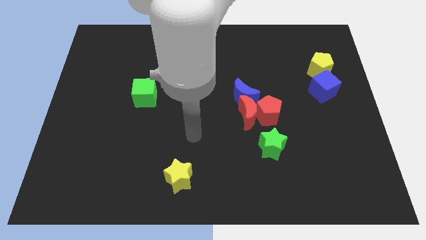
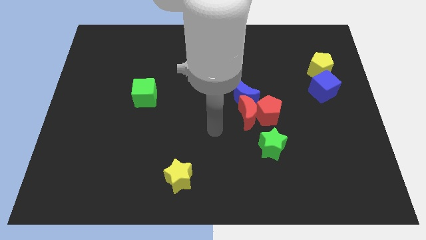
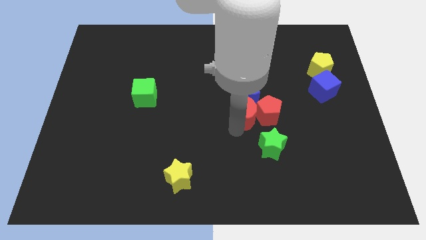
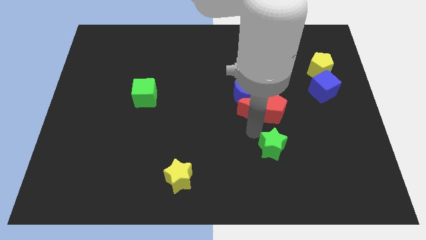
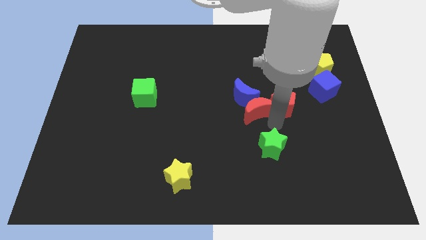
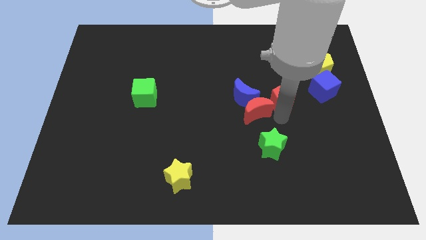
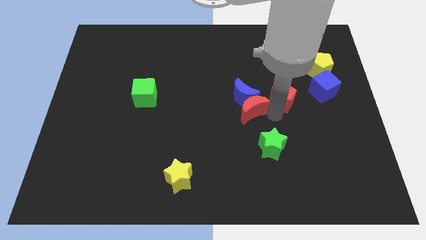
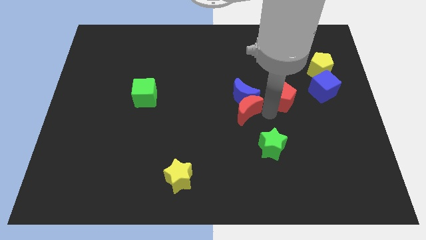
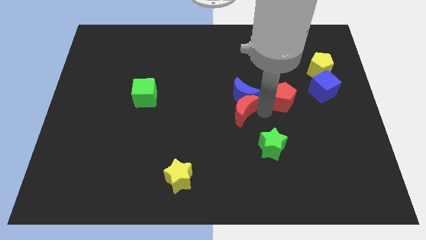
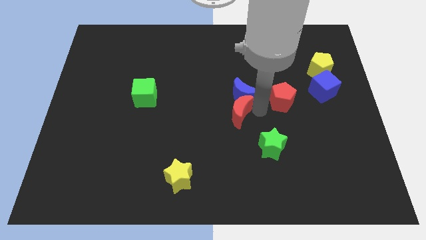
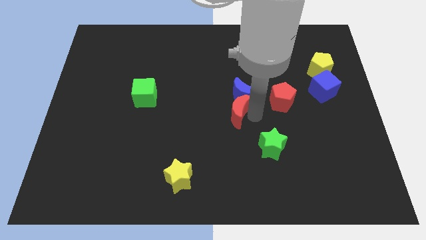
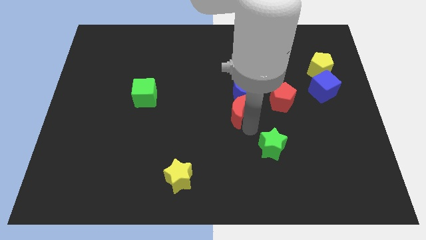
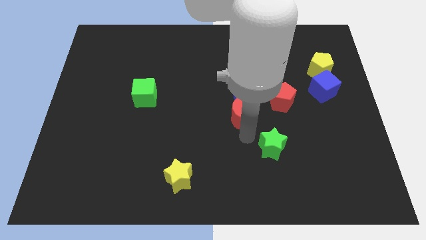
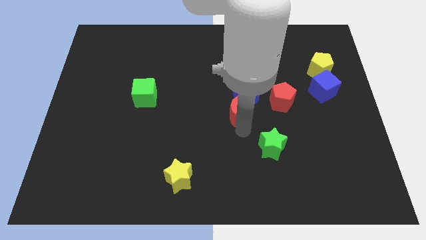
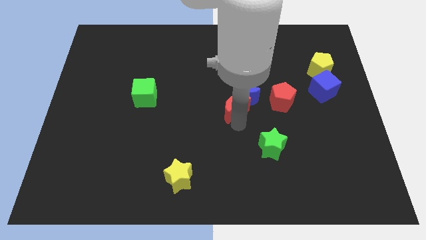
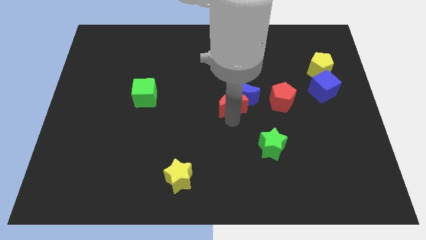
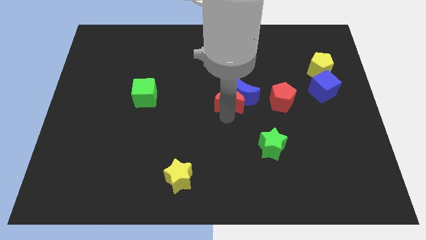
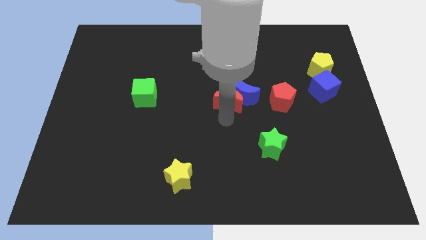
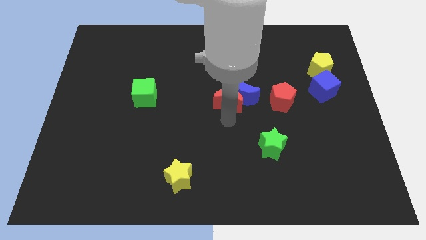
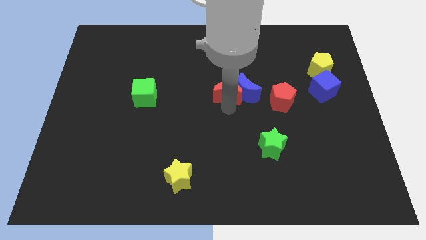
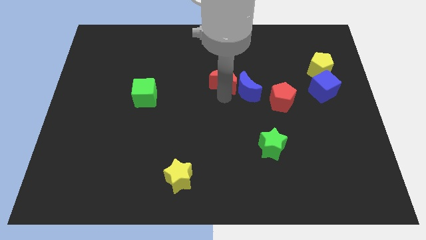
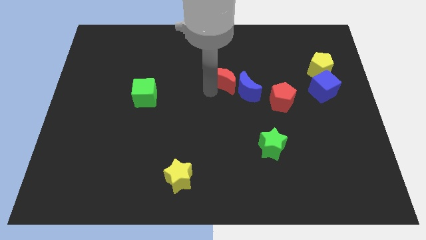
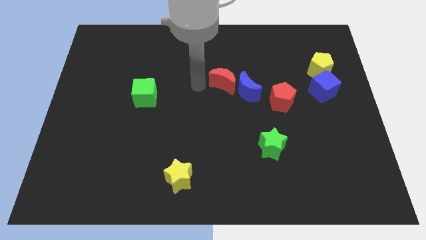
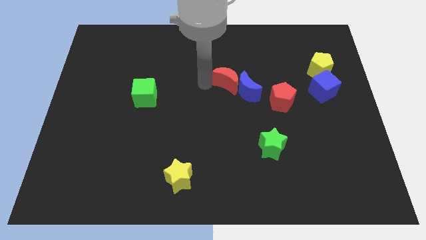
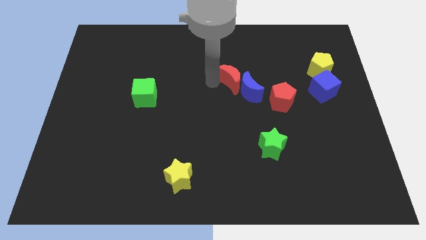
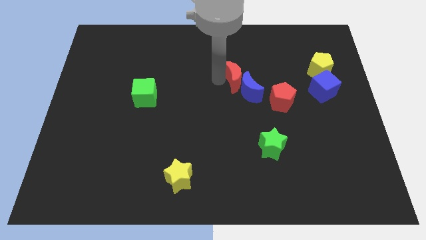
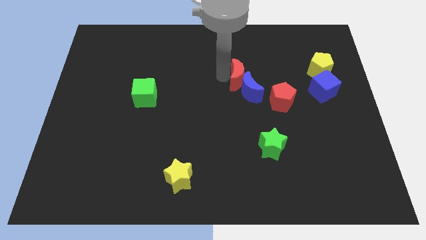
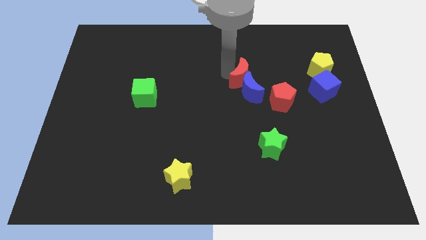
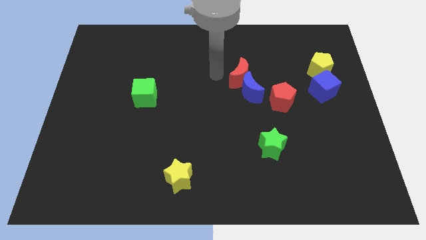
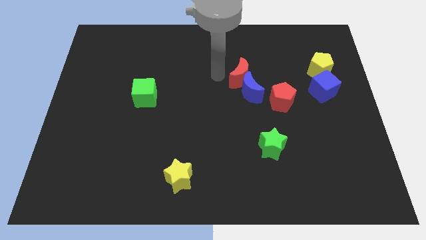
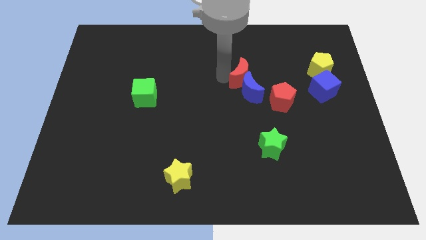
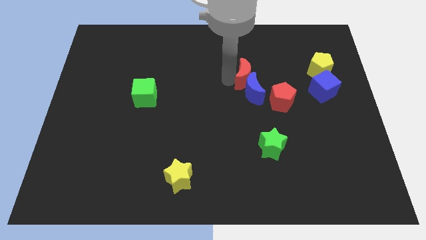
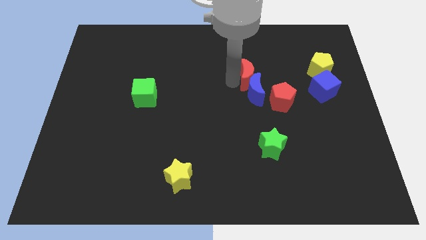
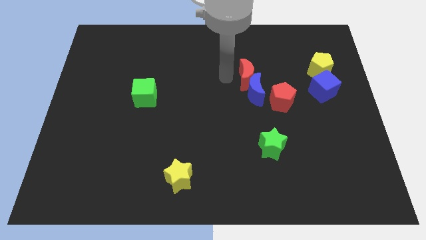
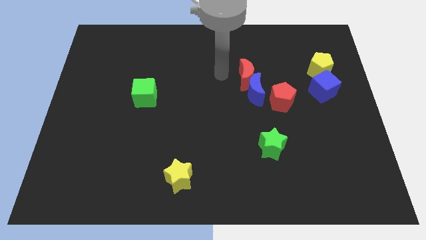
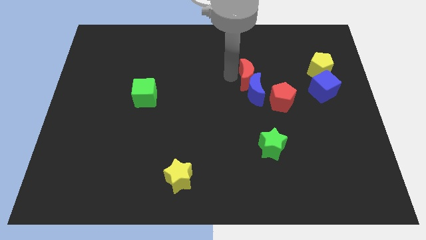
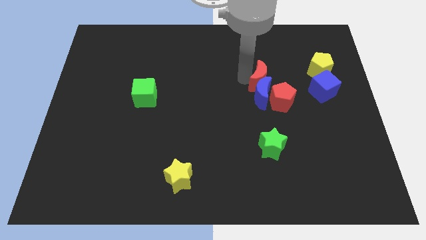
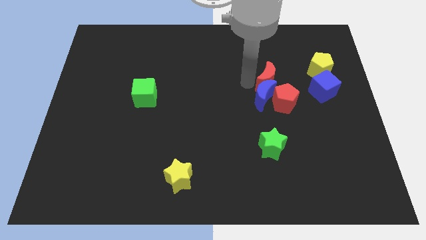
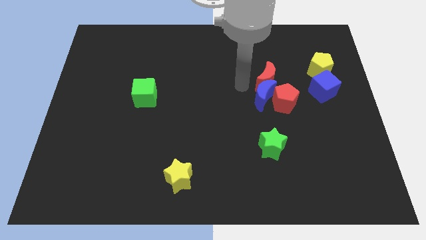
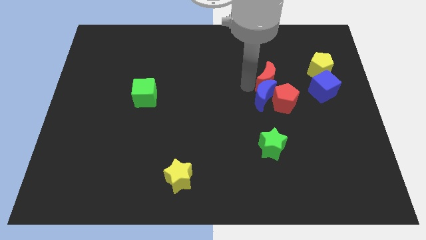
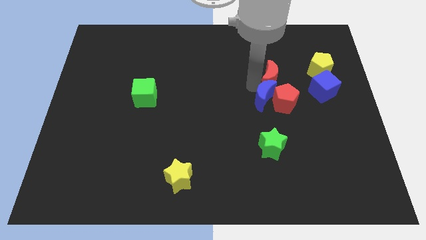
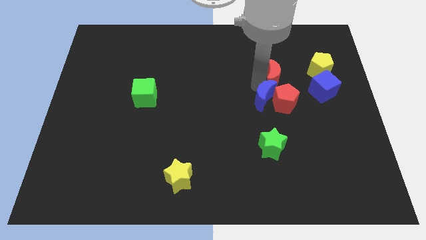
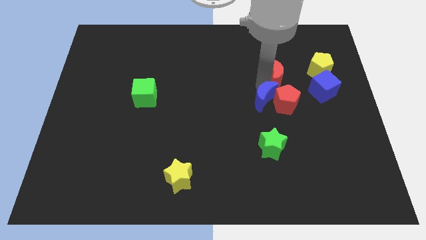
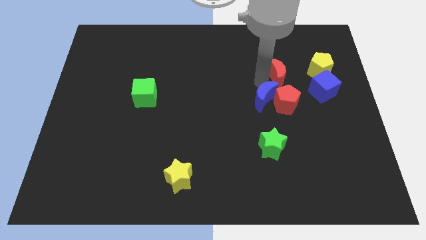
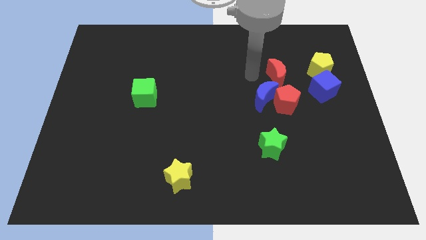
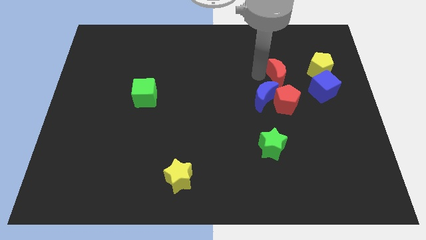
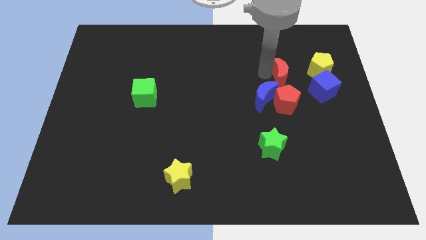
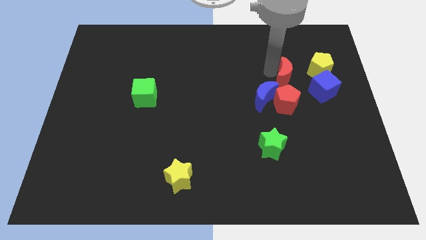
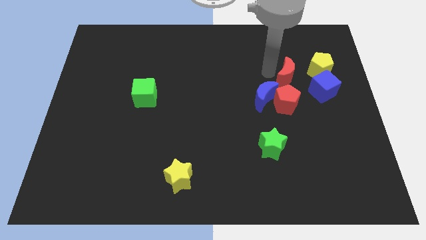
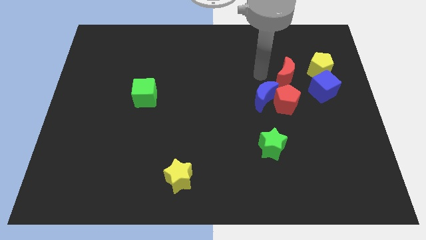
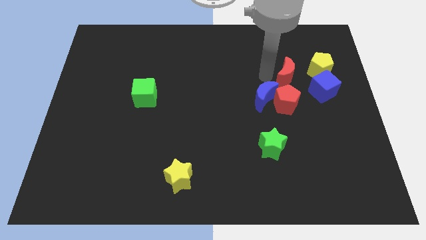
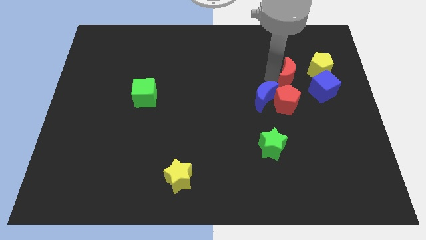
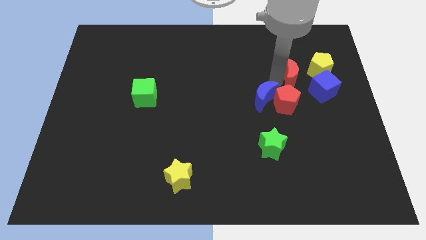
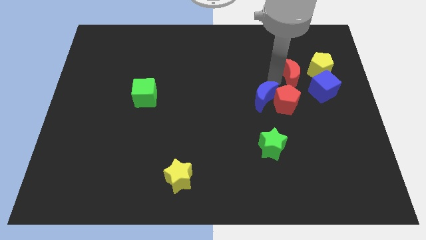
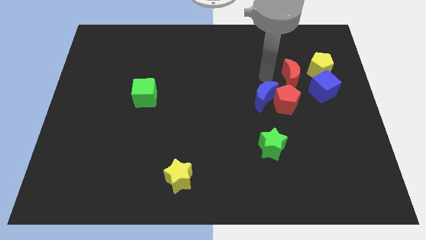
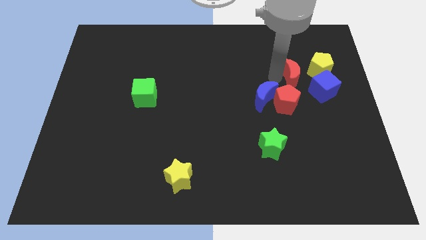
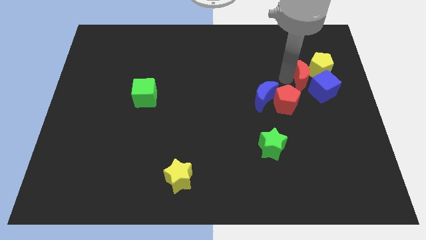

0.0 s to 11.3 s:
slide the red moon close to the blue cube

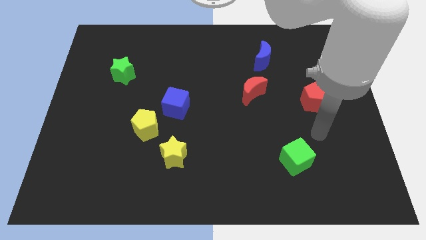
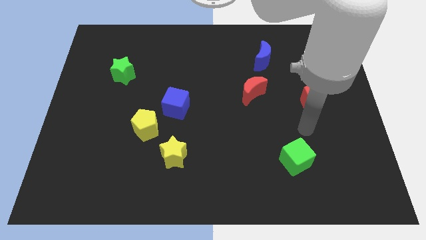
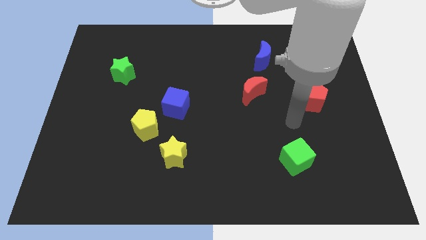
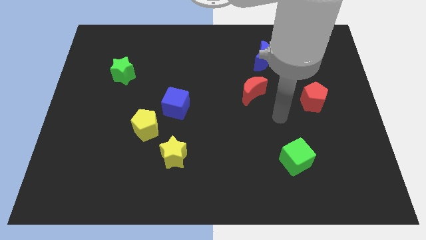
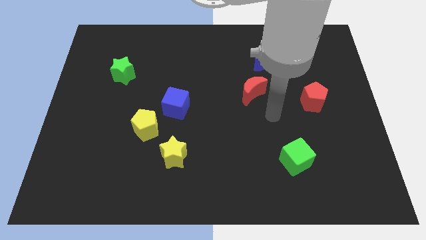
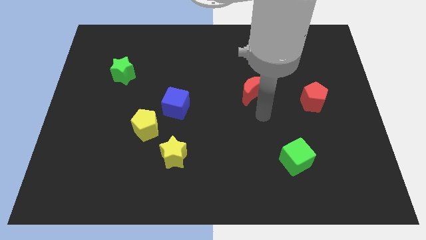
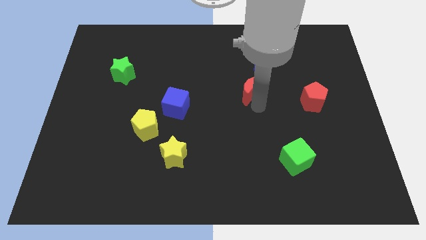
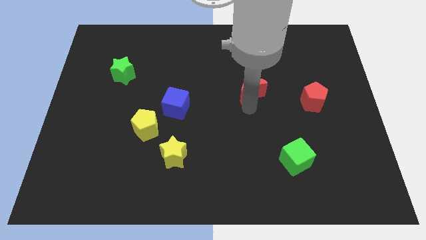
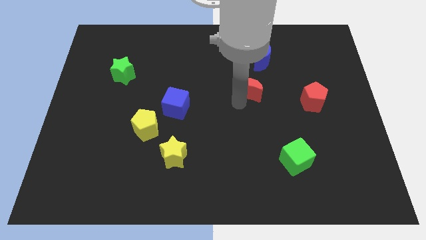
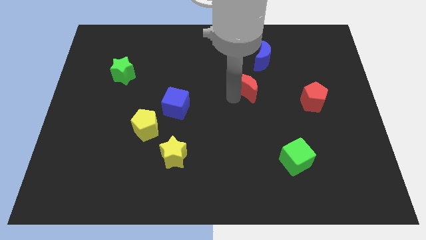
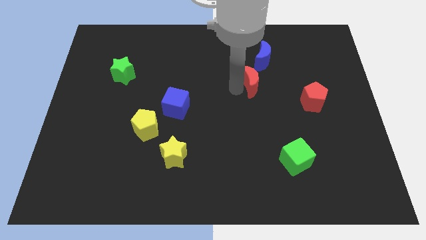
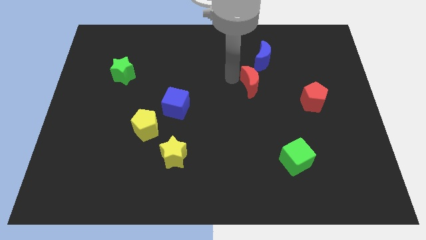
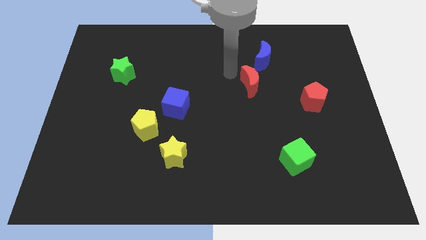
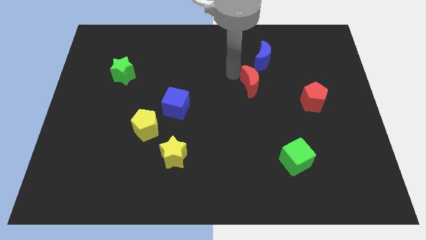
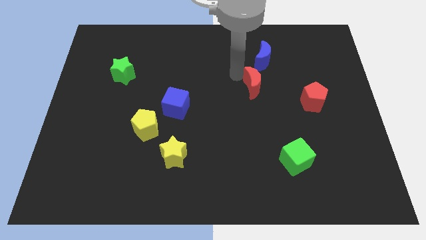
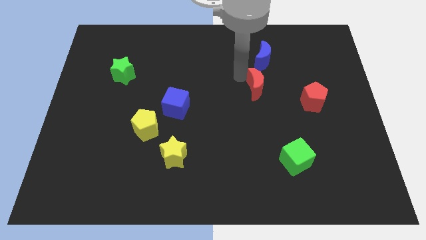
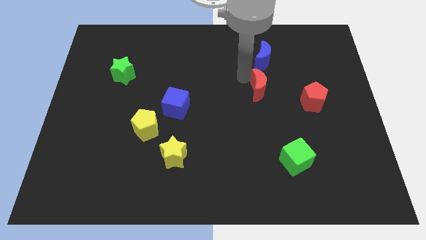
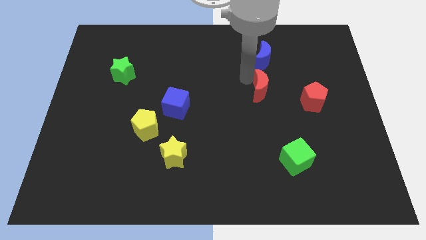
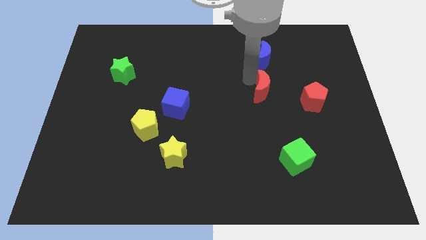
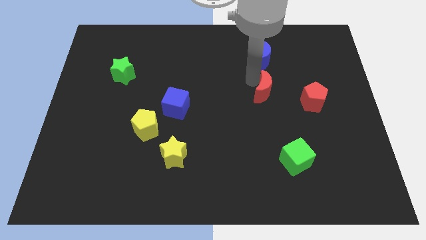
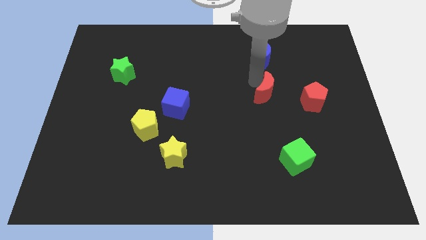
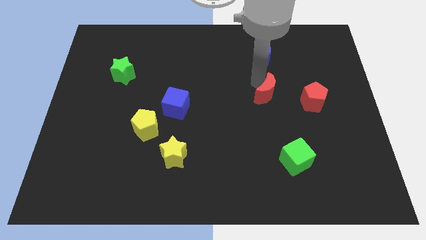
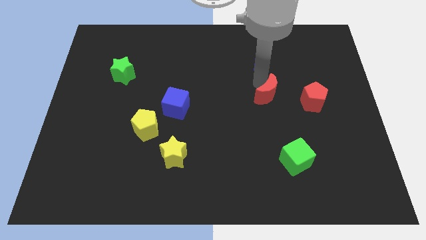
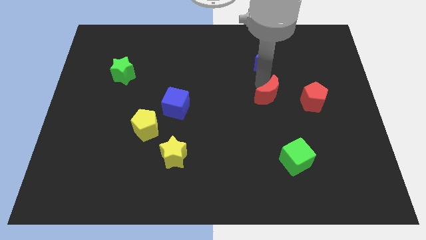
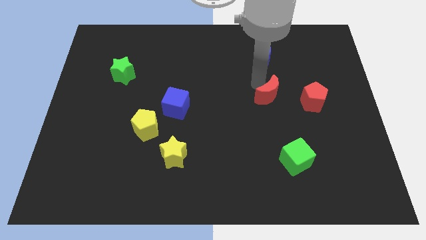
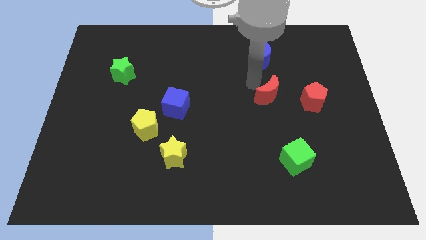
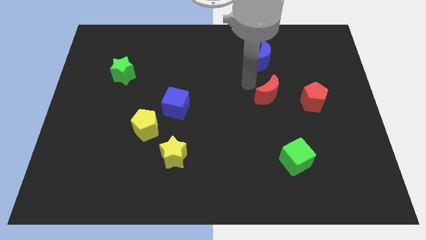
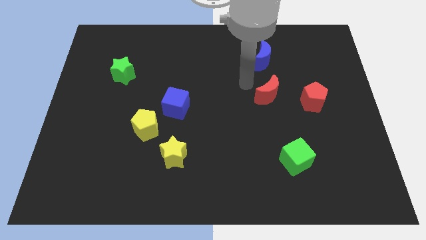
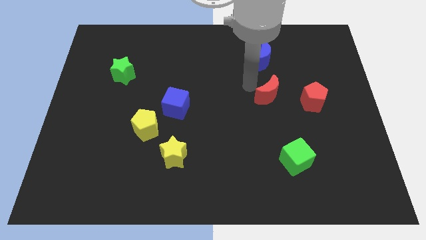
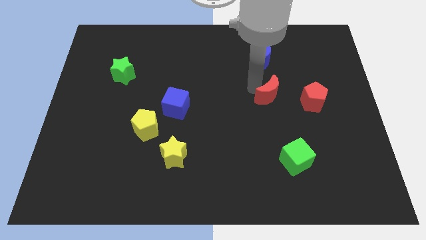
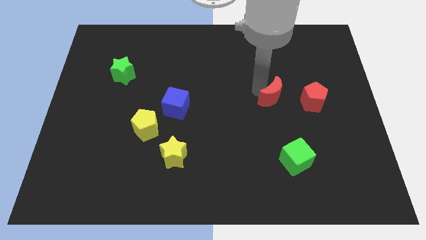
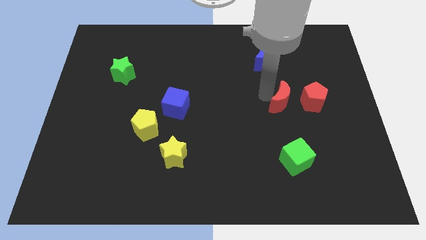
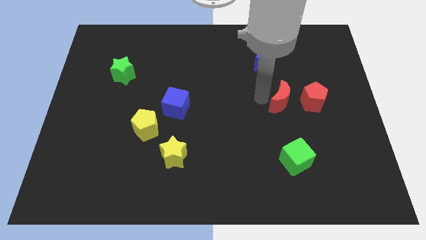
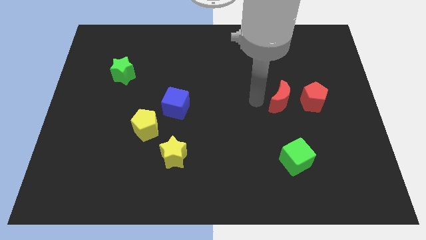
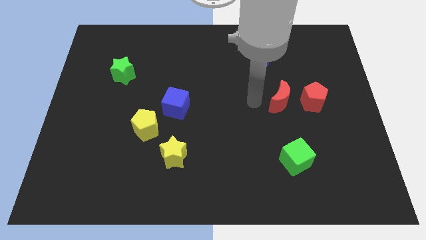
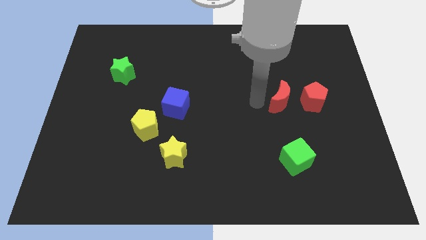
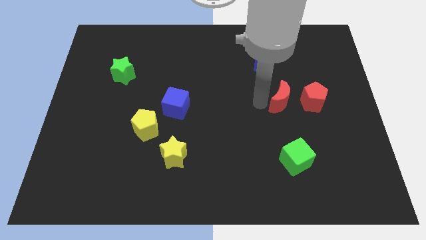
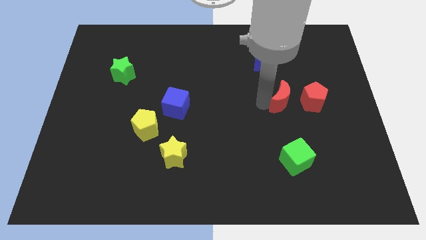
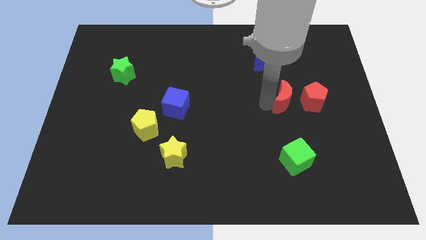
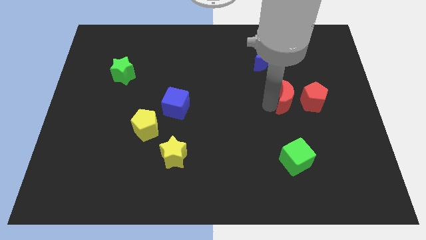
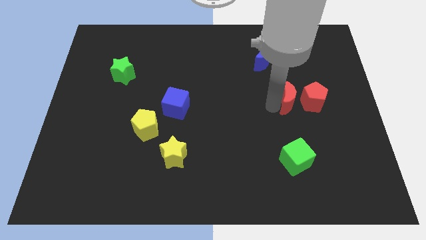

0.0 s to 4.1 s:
move the red moon to the red pentagon
